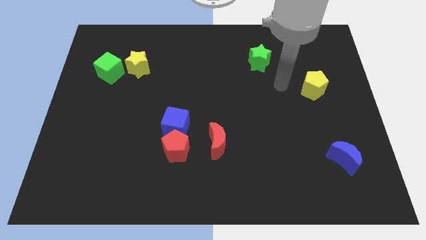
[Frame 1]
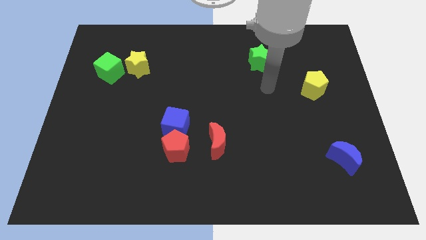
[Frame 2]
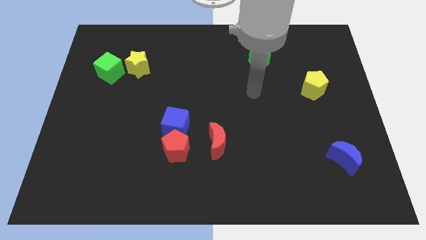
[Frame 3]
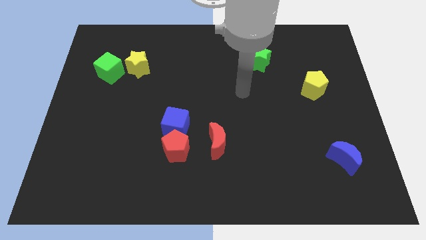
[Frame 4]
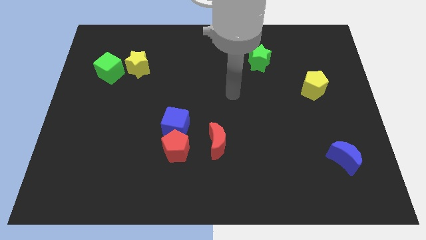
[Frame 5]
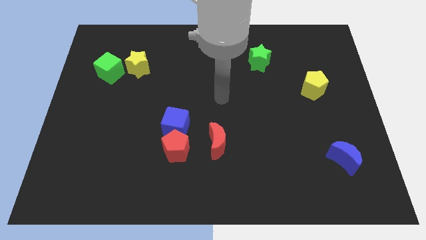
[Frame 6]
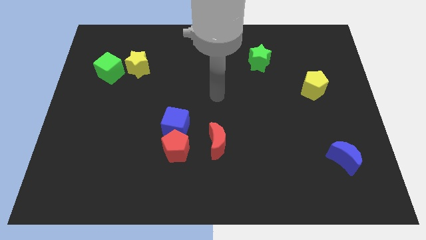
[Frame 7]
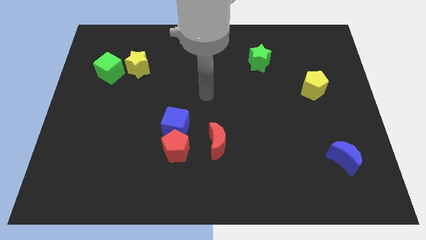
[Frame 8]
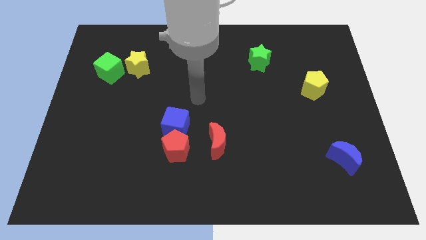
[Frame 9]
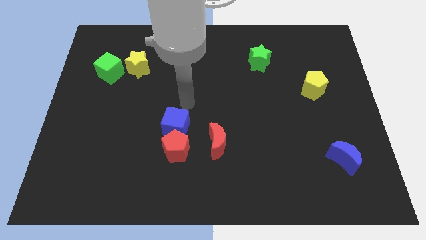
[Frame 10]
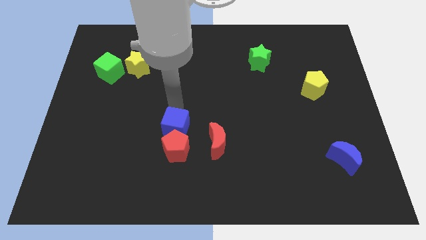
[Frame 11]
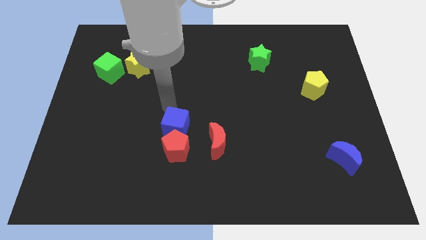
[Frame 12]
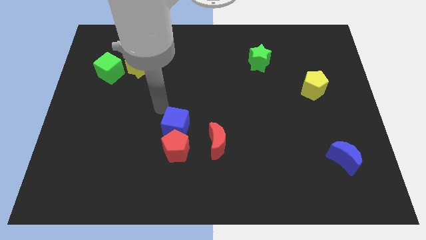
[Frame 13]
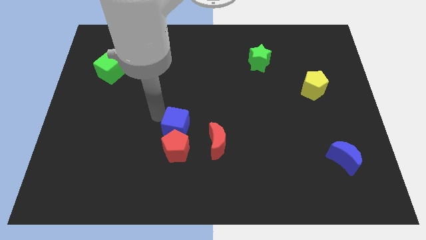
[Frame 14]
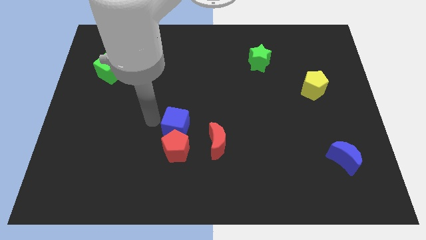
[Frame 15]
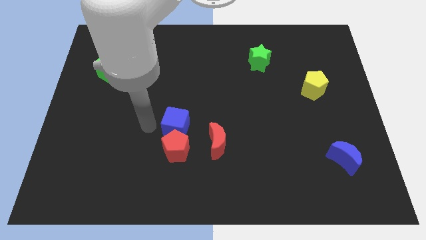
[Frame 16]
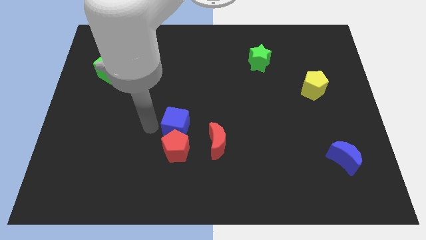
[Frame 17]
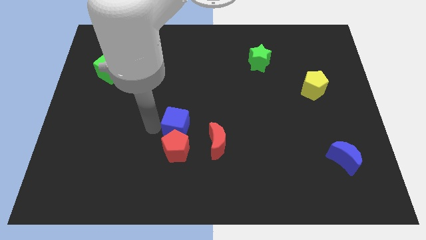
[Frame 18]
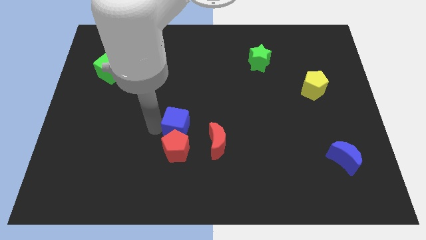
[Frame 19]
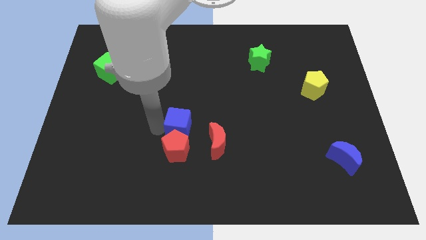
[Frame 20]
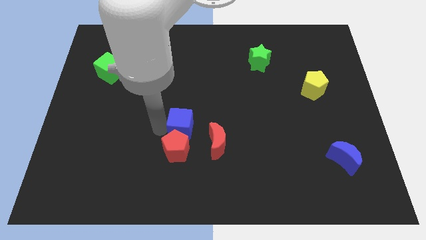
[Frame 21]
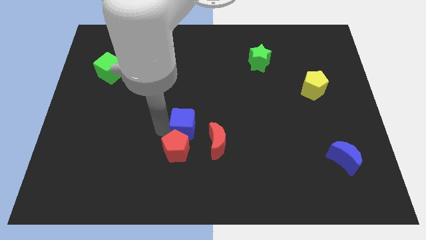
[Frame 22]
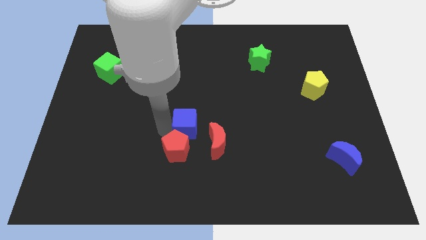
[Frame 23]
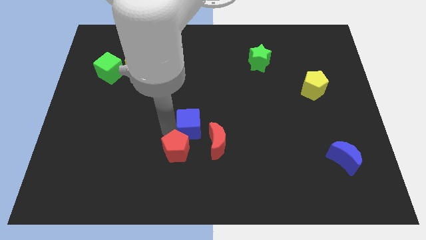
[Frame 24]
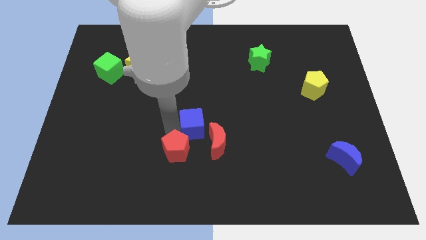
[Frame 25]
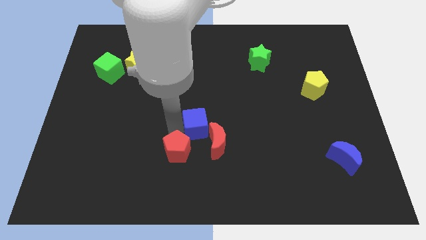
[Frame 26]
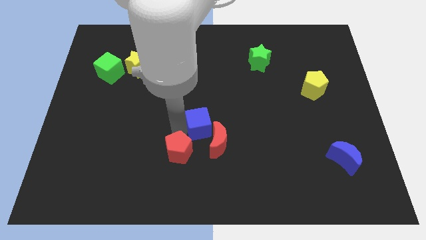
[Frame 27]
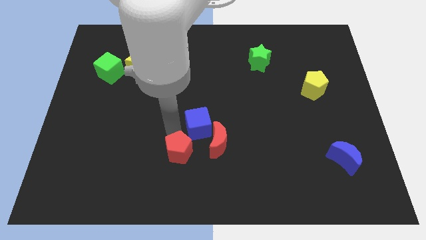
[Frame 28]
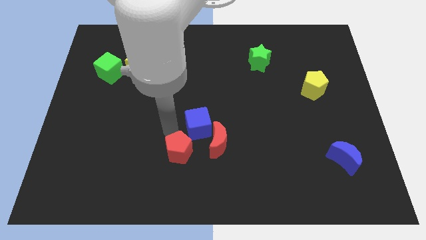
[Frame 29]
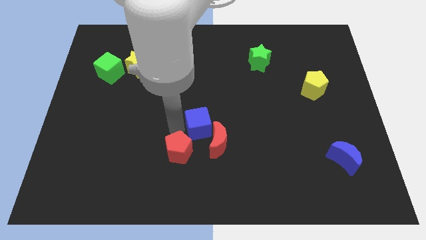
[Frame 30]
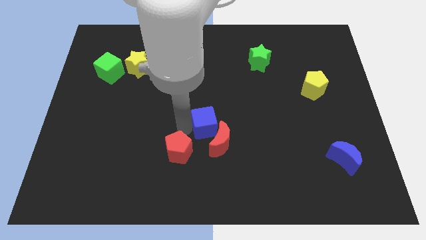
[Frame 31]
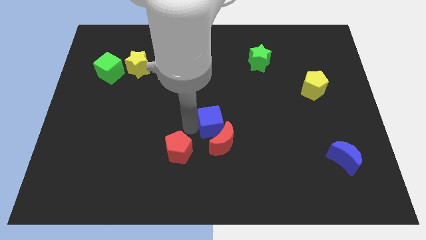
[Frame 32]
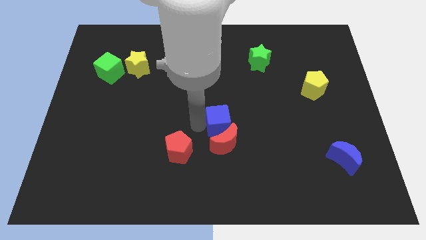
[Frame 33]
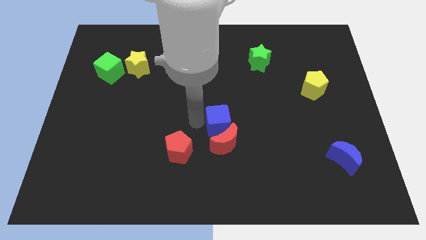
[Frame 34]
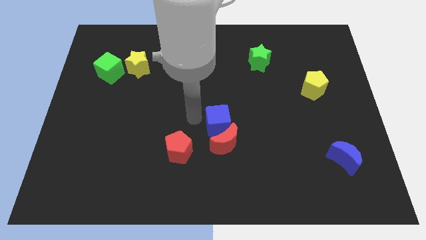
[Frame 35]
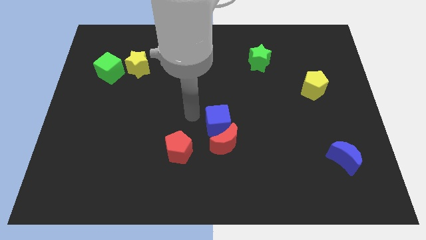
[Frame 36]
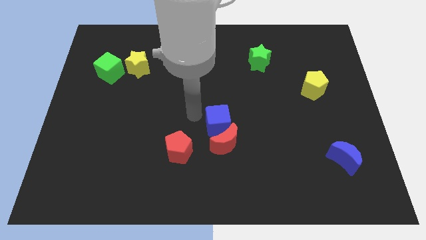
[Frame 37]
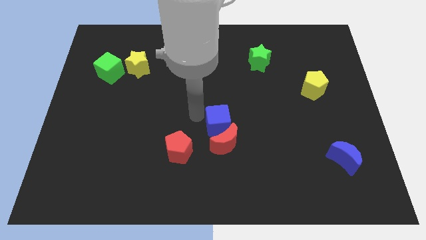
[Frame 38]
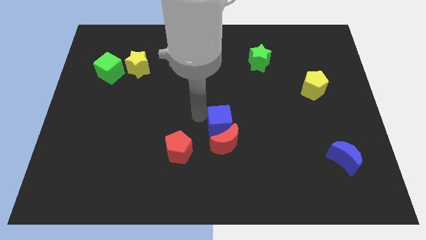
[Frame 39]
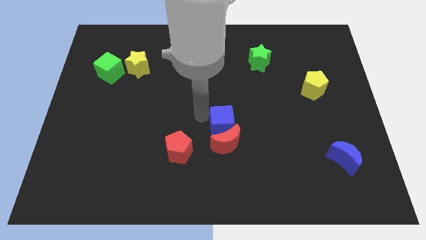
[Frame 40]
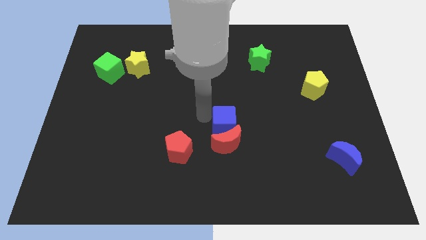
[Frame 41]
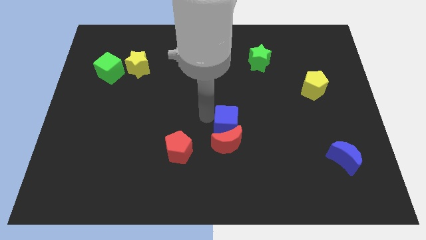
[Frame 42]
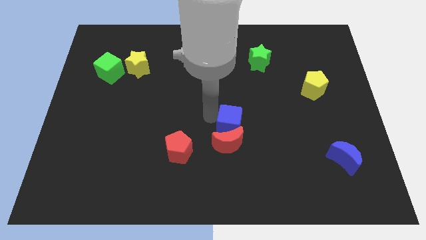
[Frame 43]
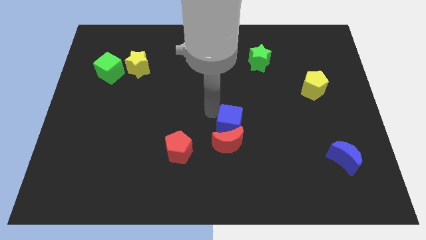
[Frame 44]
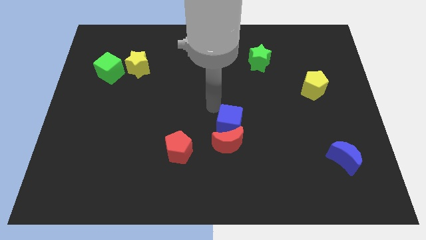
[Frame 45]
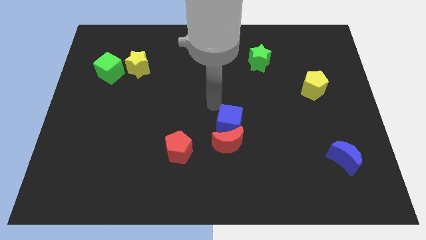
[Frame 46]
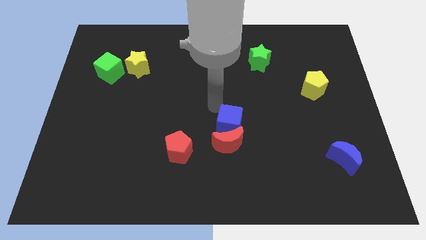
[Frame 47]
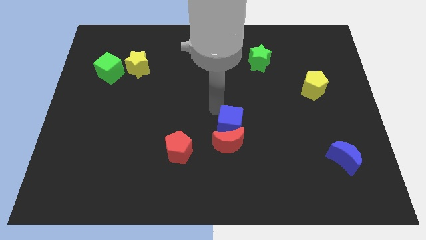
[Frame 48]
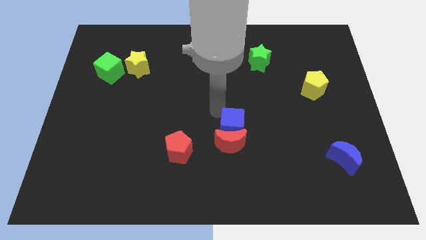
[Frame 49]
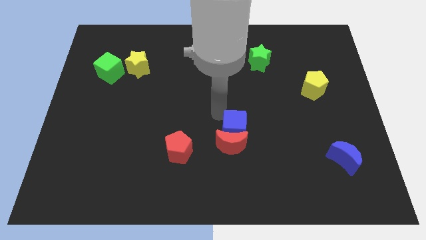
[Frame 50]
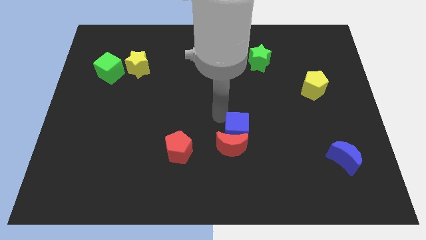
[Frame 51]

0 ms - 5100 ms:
slide the blue cube down and then to the right a little bit

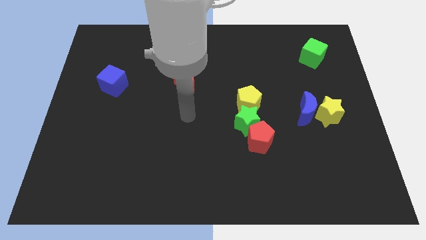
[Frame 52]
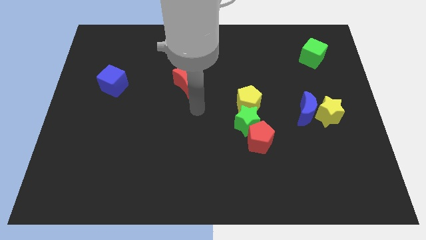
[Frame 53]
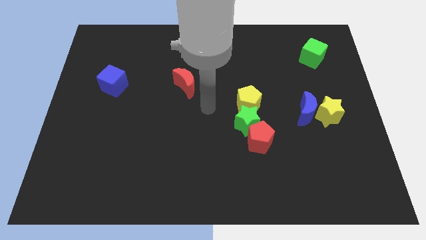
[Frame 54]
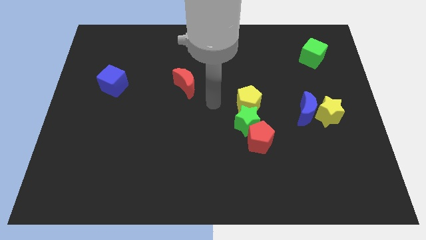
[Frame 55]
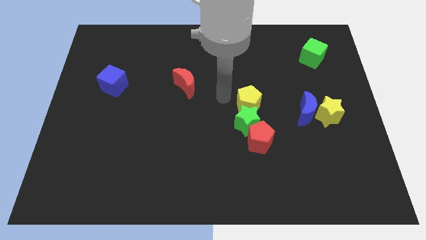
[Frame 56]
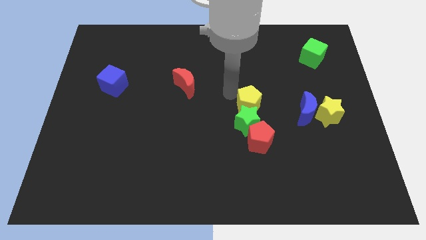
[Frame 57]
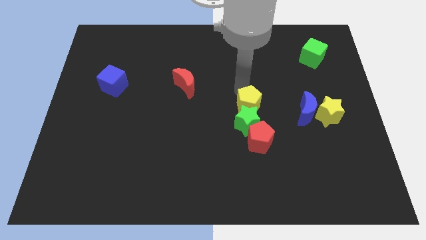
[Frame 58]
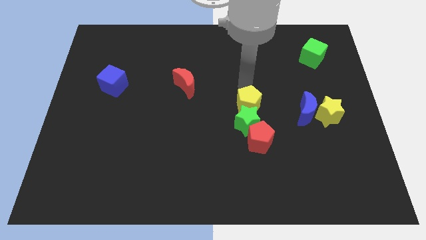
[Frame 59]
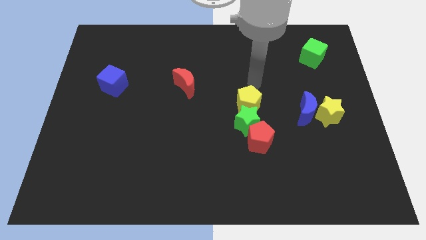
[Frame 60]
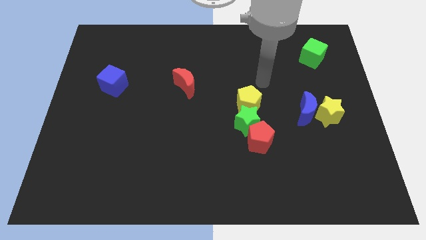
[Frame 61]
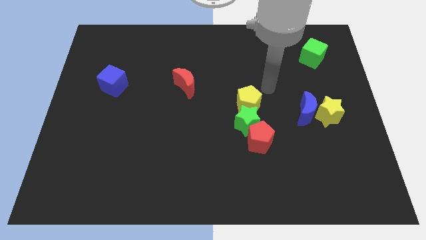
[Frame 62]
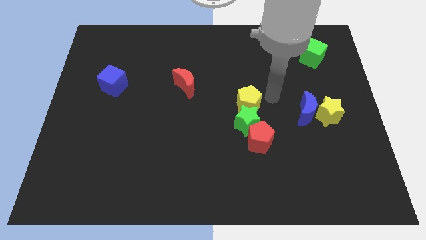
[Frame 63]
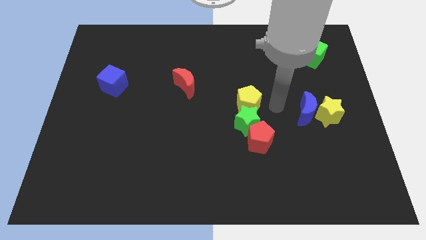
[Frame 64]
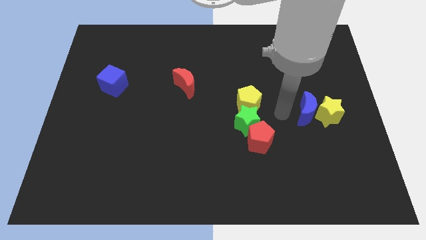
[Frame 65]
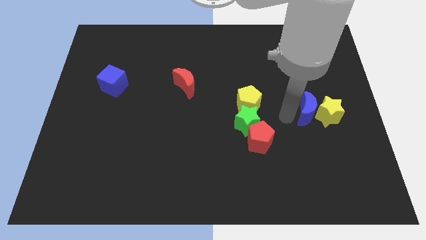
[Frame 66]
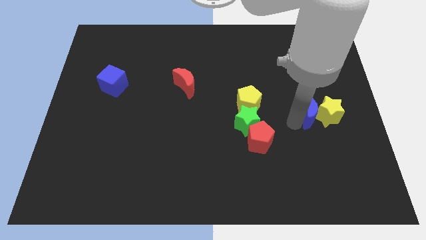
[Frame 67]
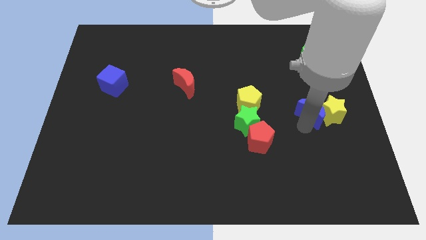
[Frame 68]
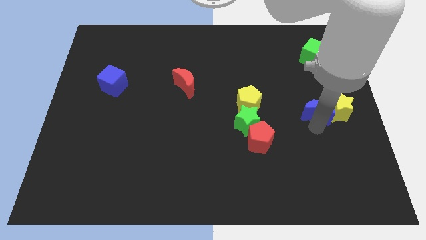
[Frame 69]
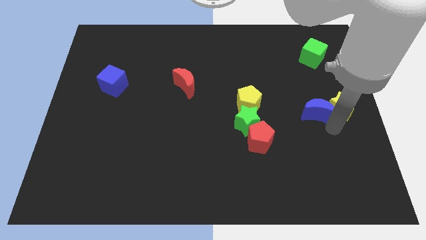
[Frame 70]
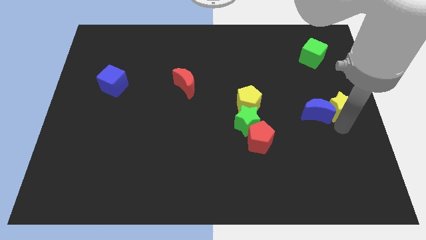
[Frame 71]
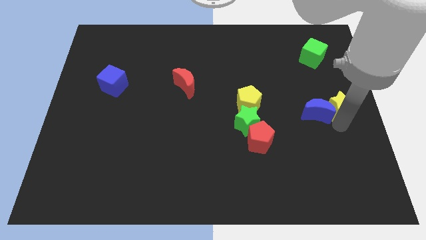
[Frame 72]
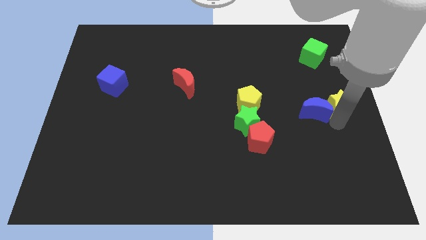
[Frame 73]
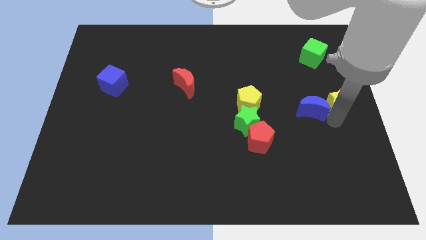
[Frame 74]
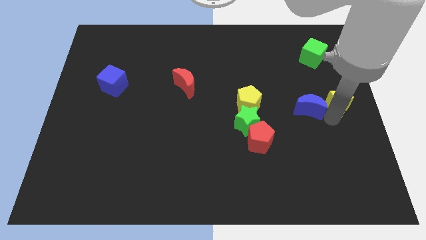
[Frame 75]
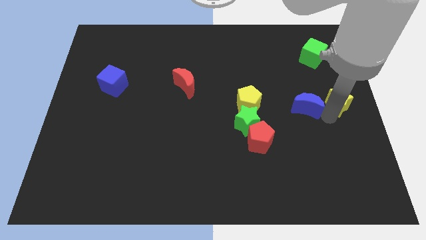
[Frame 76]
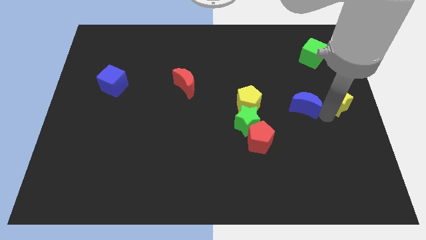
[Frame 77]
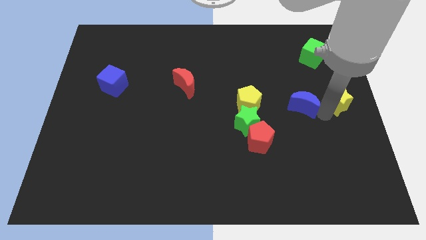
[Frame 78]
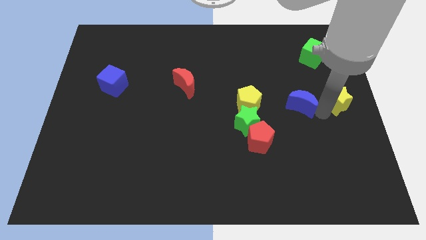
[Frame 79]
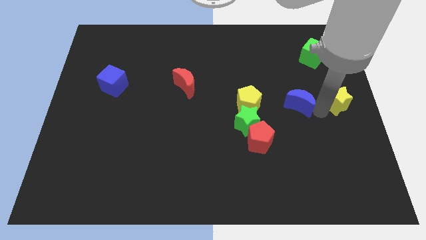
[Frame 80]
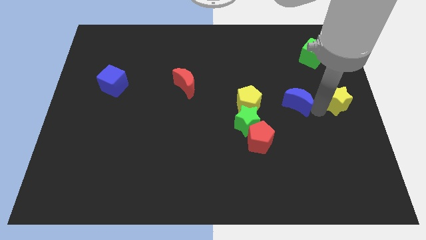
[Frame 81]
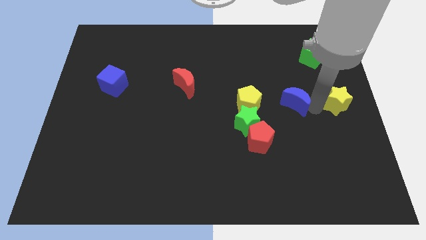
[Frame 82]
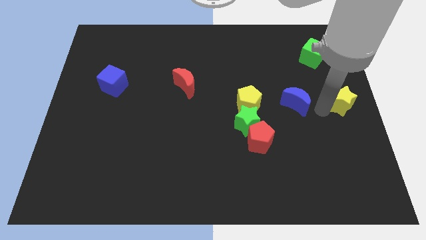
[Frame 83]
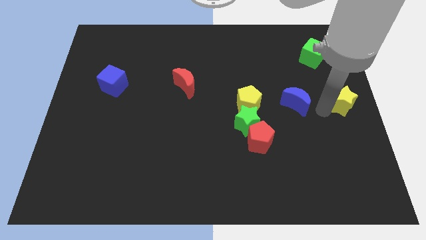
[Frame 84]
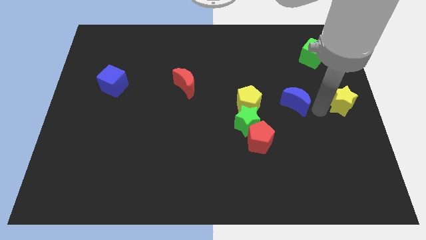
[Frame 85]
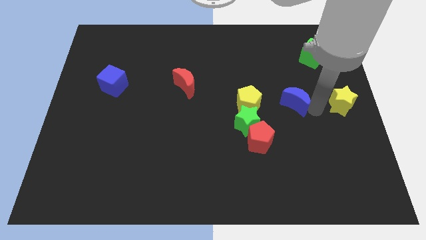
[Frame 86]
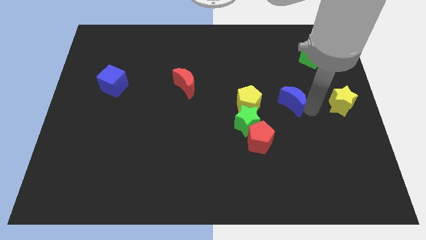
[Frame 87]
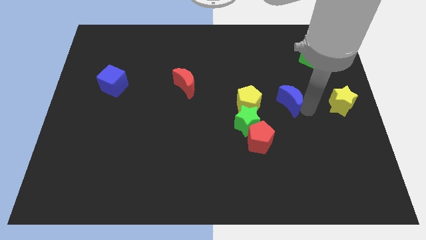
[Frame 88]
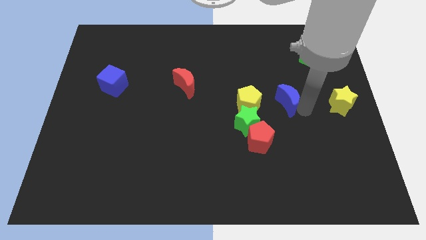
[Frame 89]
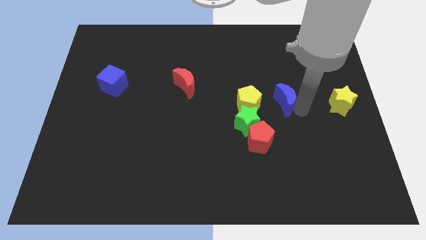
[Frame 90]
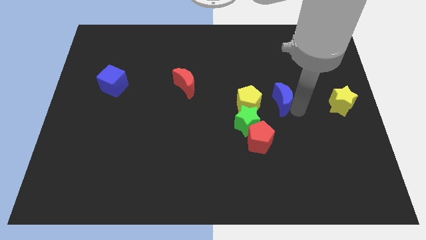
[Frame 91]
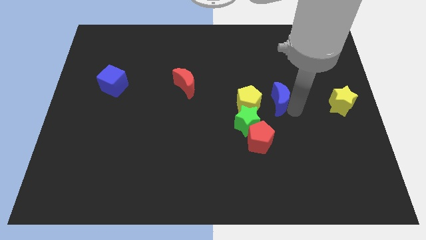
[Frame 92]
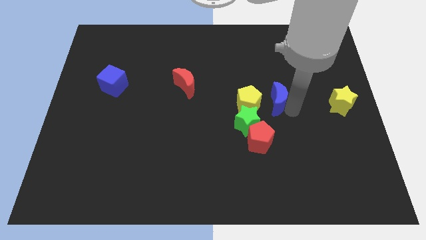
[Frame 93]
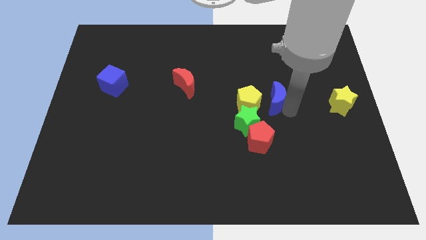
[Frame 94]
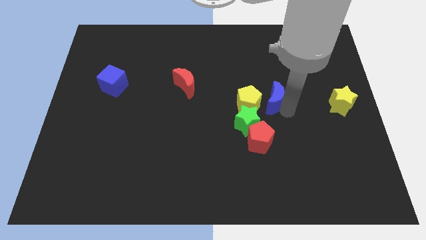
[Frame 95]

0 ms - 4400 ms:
slide the blue moon a little to the left
